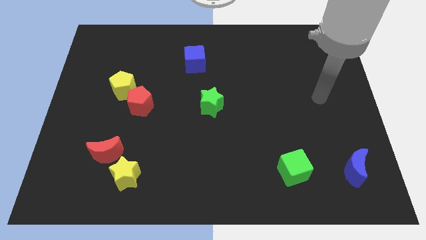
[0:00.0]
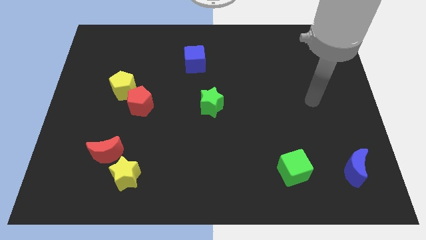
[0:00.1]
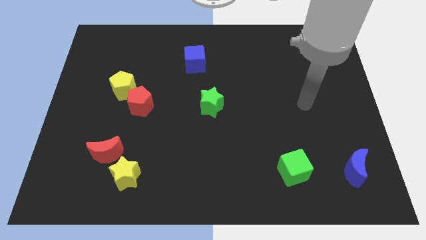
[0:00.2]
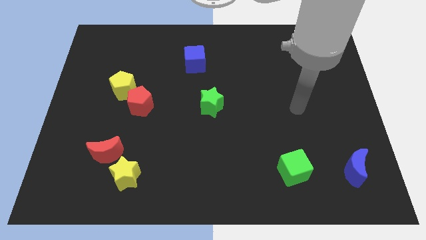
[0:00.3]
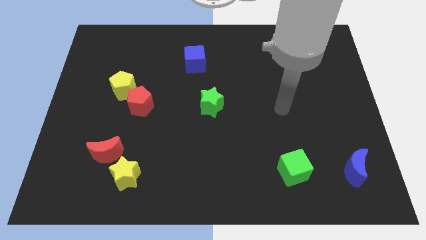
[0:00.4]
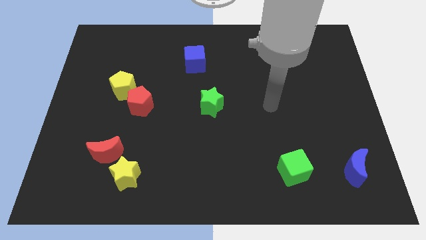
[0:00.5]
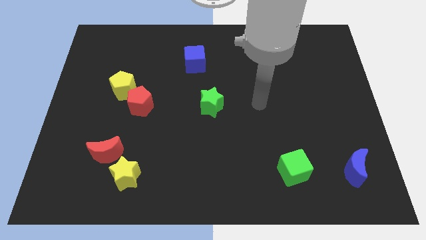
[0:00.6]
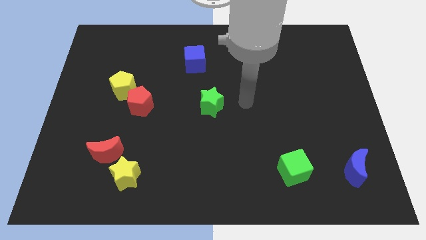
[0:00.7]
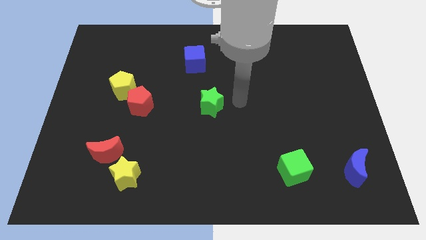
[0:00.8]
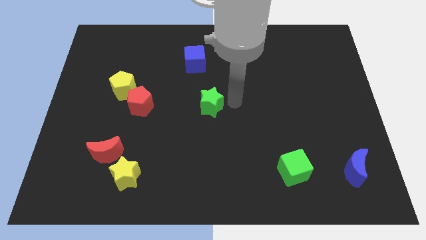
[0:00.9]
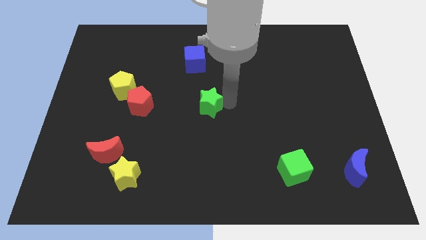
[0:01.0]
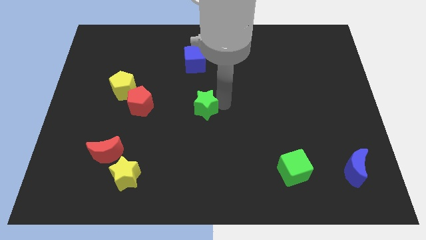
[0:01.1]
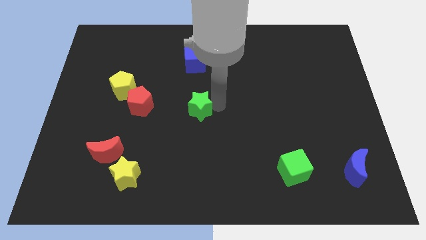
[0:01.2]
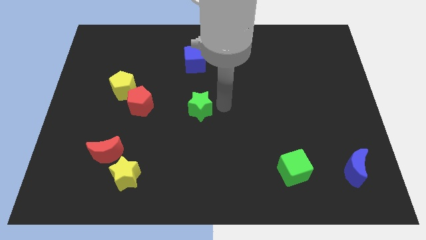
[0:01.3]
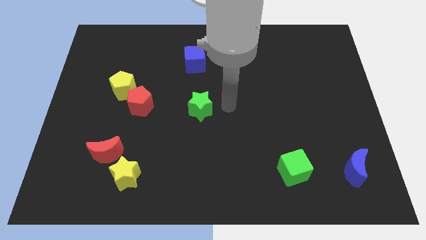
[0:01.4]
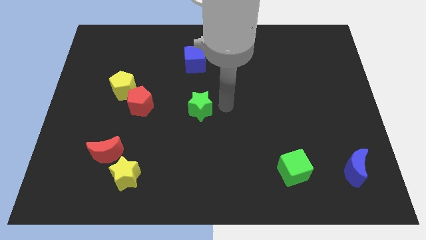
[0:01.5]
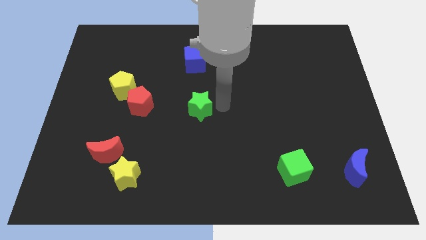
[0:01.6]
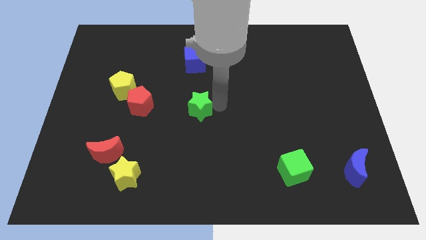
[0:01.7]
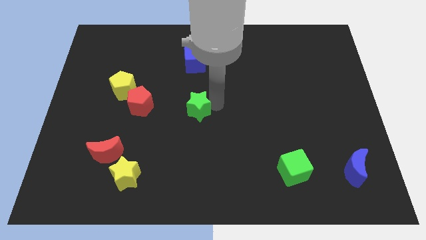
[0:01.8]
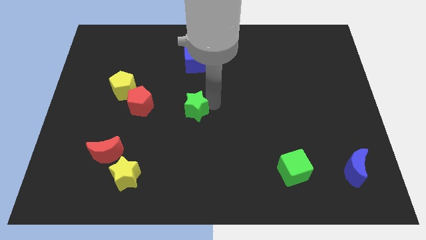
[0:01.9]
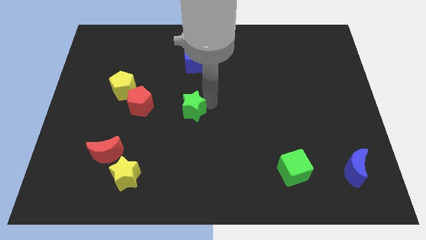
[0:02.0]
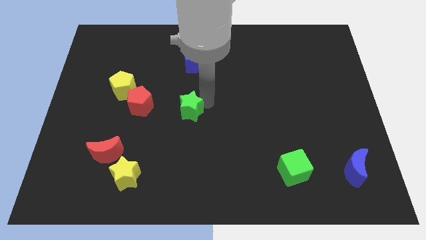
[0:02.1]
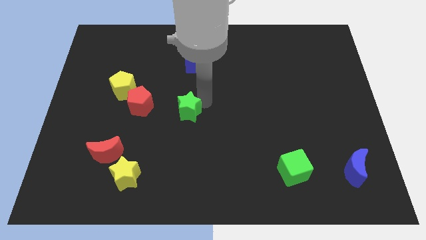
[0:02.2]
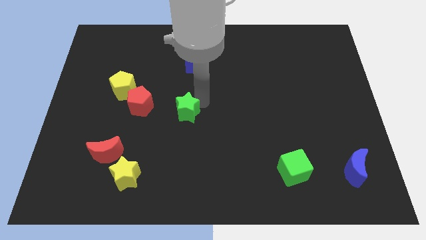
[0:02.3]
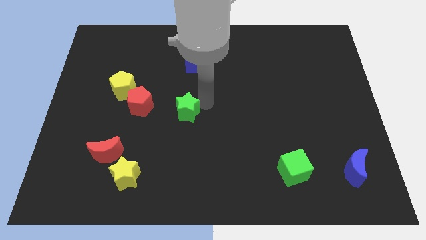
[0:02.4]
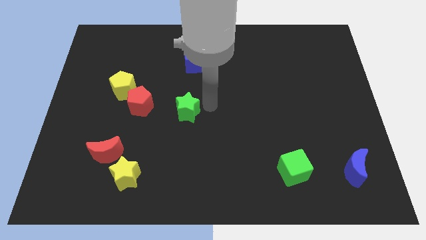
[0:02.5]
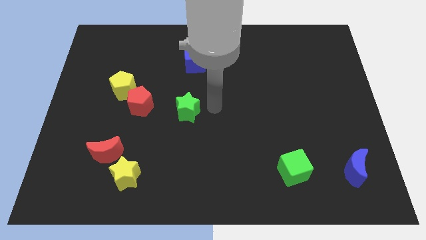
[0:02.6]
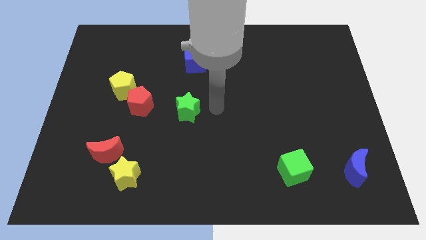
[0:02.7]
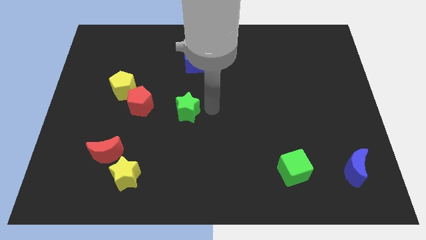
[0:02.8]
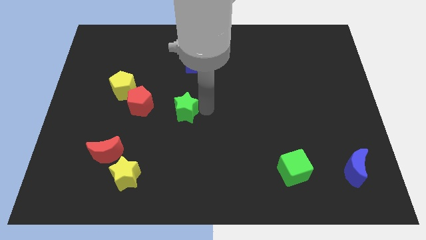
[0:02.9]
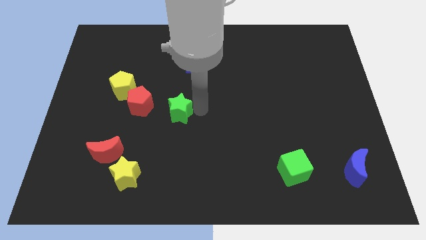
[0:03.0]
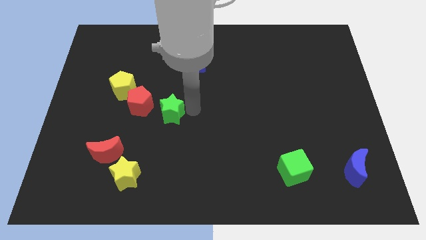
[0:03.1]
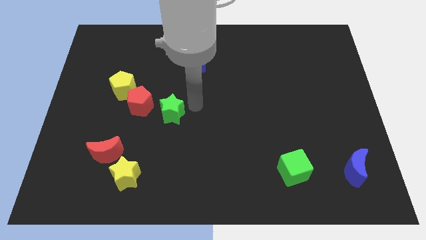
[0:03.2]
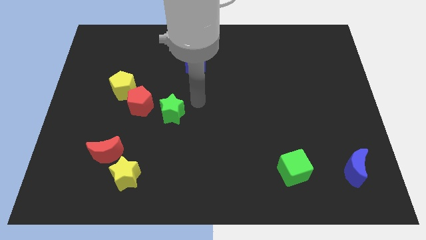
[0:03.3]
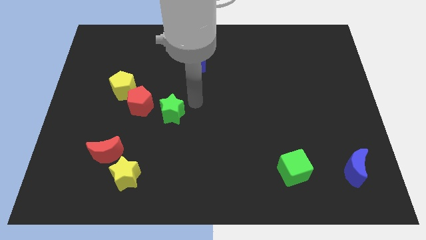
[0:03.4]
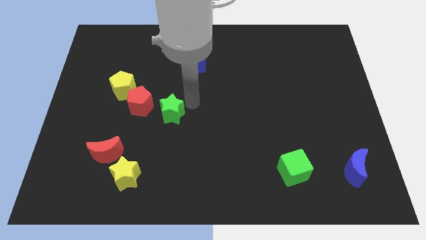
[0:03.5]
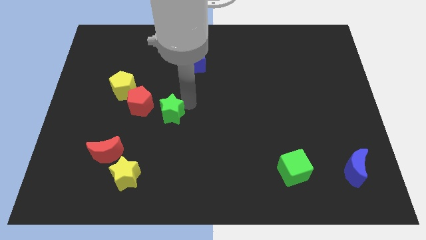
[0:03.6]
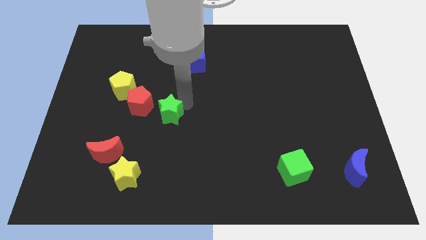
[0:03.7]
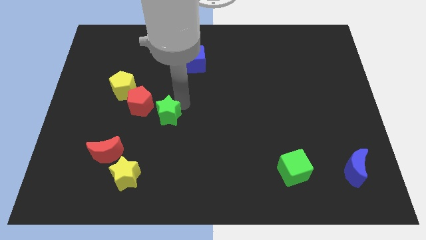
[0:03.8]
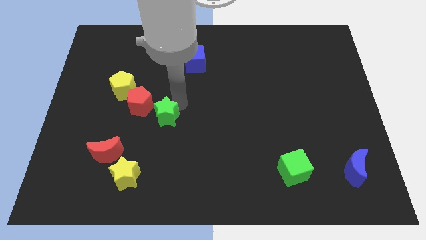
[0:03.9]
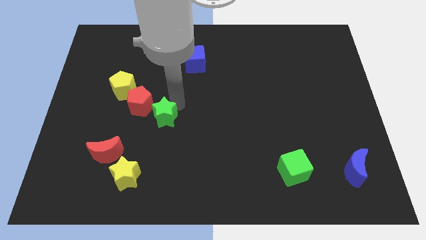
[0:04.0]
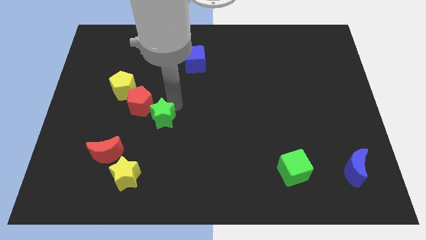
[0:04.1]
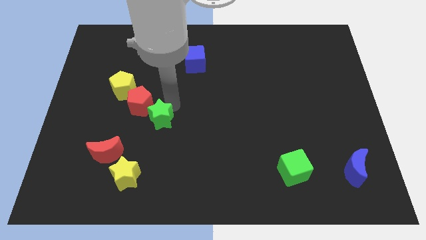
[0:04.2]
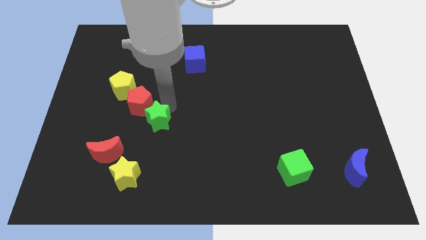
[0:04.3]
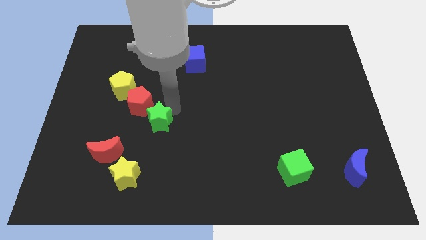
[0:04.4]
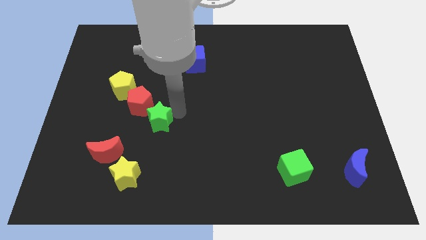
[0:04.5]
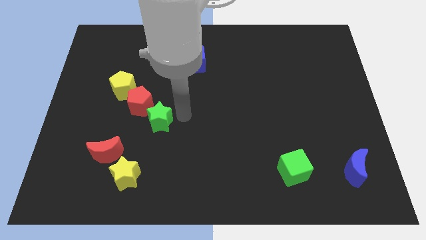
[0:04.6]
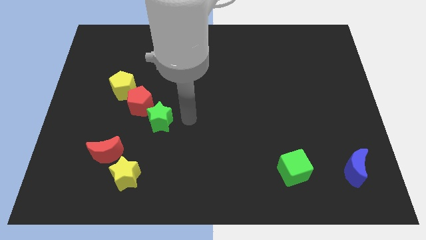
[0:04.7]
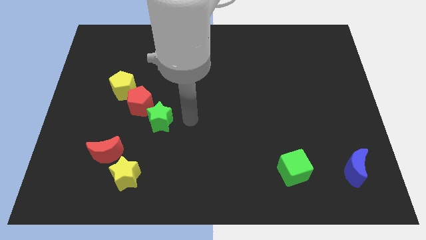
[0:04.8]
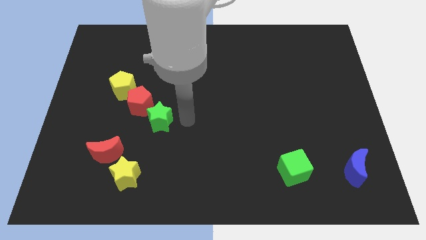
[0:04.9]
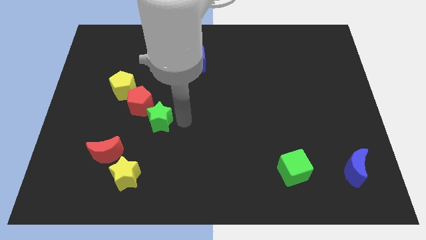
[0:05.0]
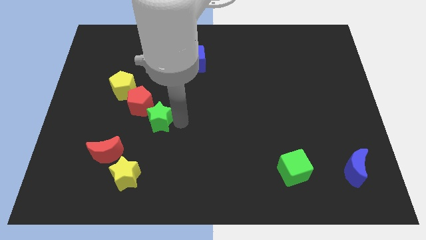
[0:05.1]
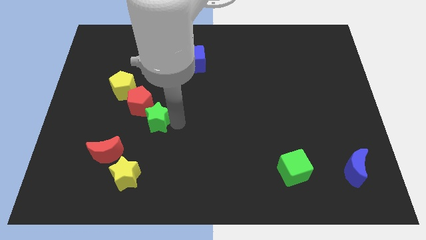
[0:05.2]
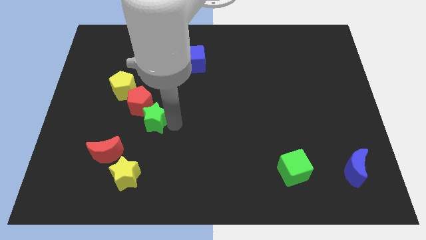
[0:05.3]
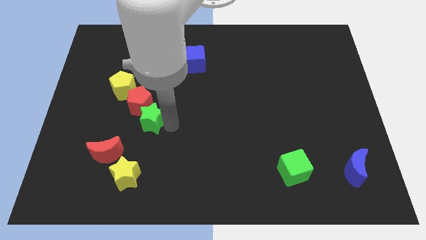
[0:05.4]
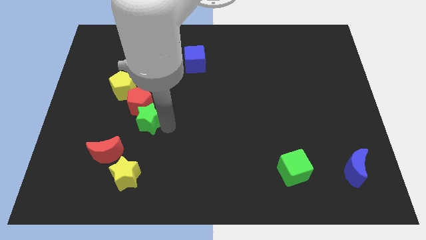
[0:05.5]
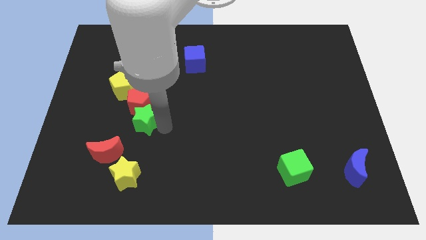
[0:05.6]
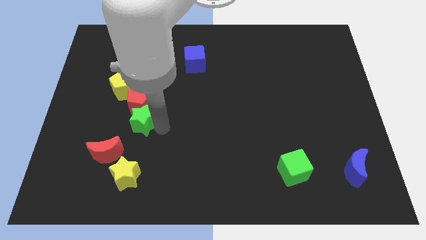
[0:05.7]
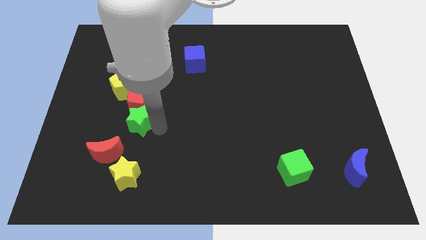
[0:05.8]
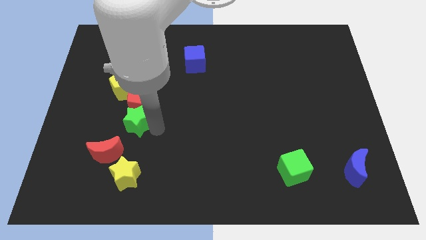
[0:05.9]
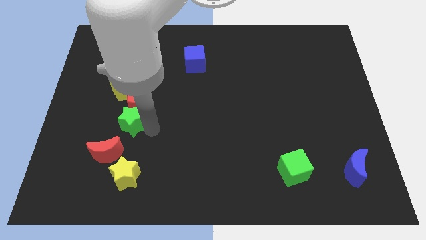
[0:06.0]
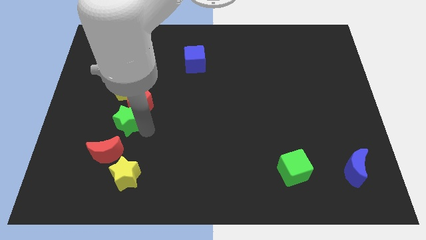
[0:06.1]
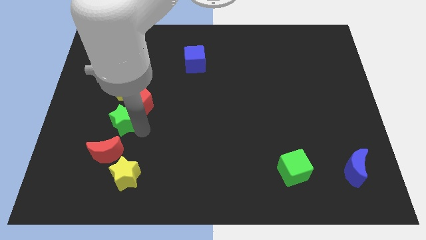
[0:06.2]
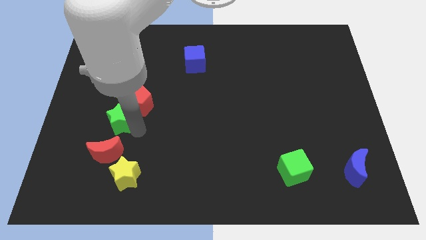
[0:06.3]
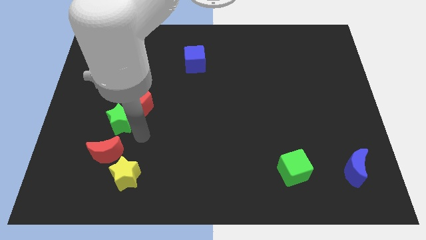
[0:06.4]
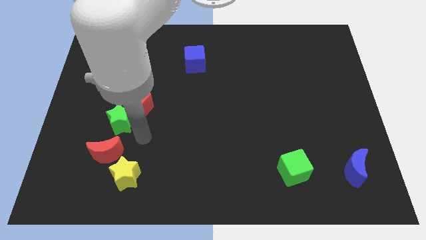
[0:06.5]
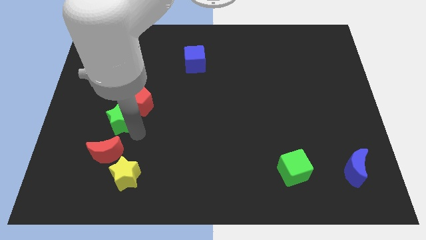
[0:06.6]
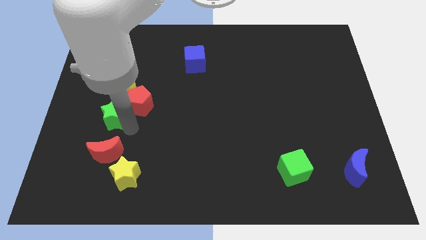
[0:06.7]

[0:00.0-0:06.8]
slide the green star just left of the red pentagon

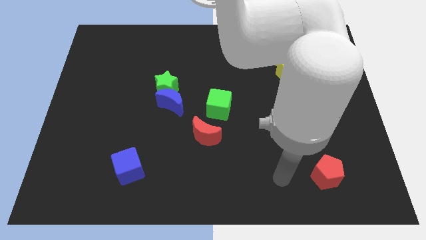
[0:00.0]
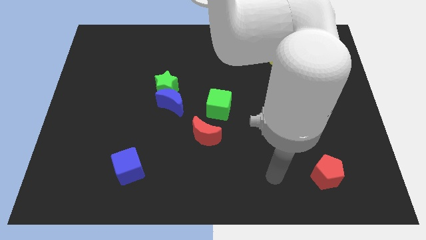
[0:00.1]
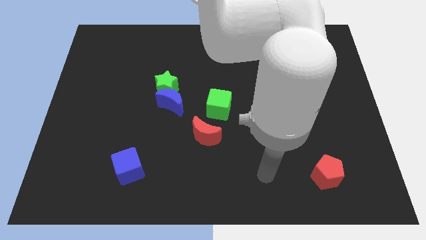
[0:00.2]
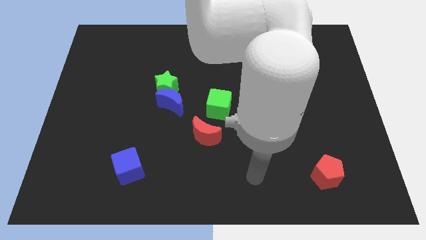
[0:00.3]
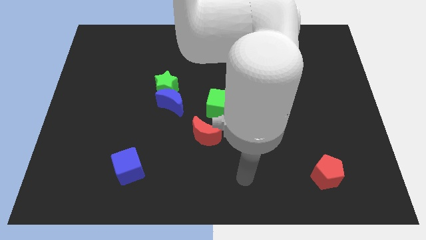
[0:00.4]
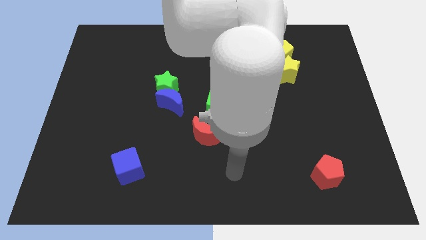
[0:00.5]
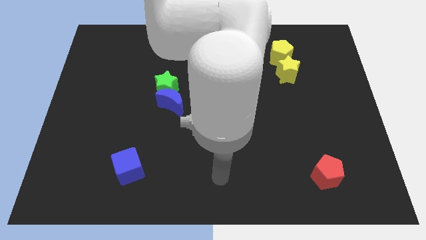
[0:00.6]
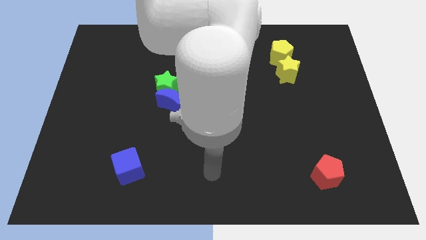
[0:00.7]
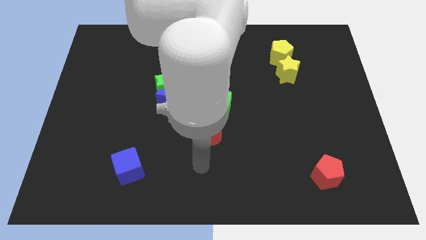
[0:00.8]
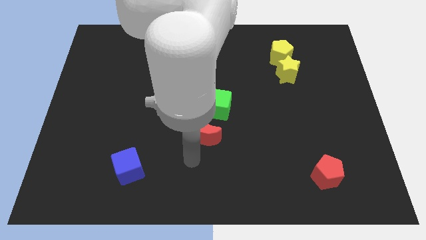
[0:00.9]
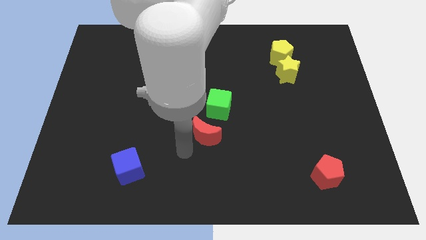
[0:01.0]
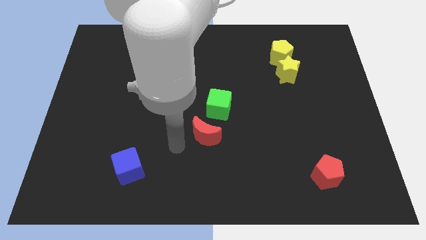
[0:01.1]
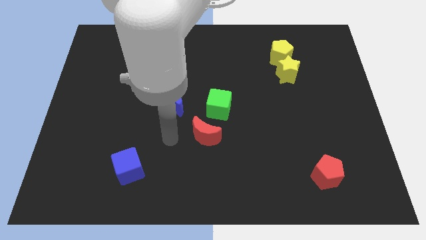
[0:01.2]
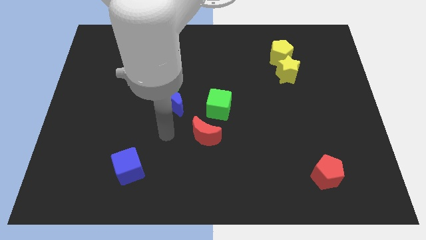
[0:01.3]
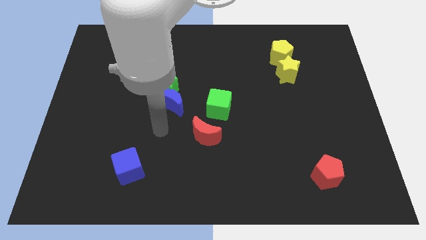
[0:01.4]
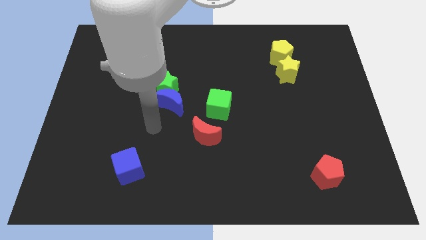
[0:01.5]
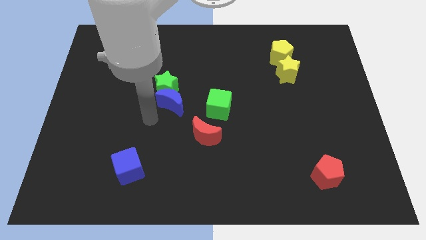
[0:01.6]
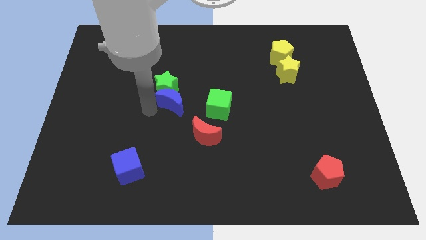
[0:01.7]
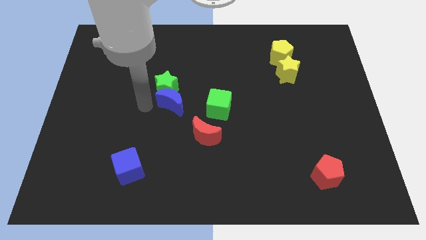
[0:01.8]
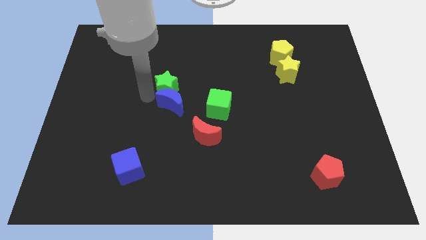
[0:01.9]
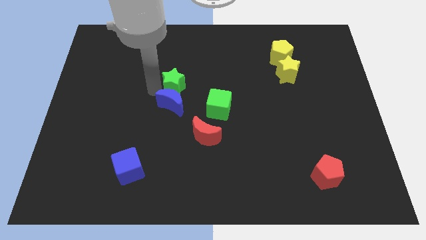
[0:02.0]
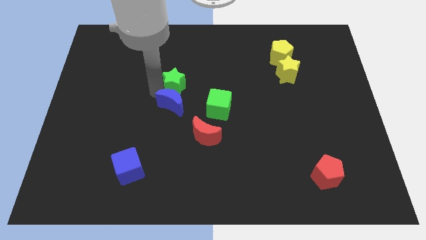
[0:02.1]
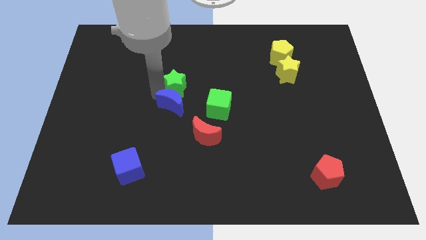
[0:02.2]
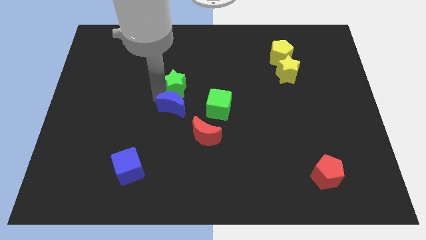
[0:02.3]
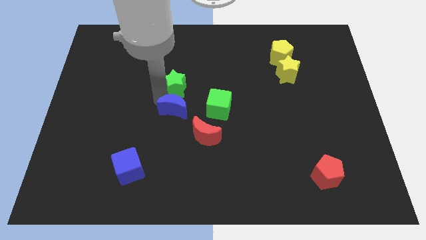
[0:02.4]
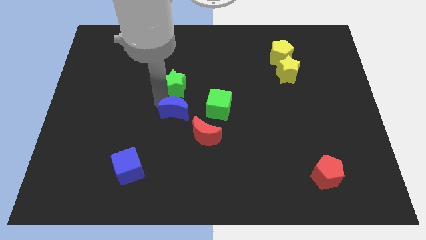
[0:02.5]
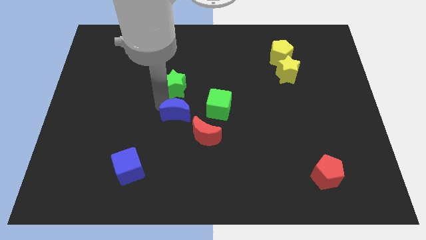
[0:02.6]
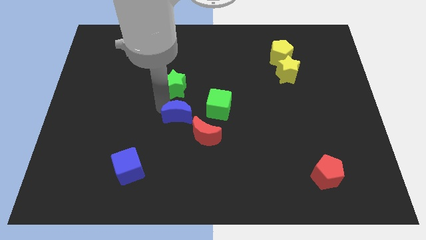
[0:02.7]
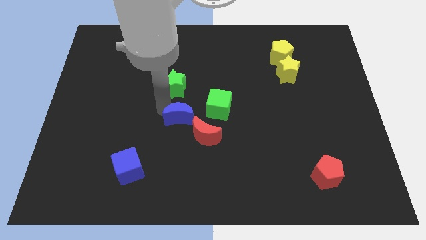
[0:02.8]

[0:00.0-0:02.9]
push the blue moon to the bottom left of the green cube
